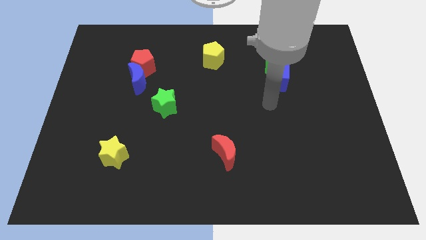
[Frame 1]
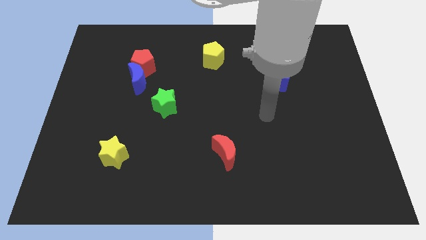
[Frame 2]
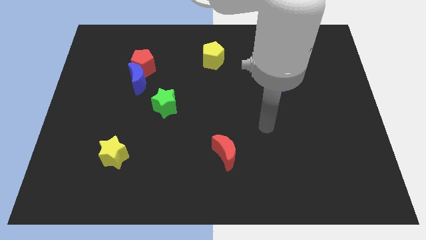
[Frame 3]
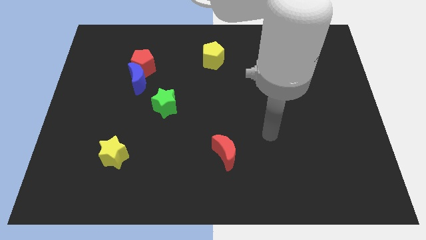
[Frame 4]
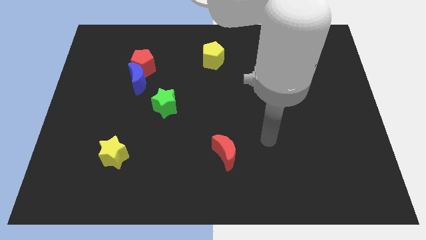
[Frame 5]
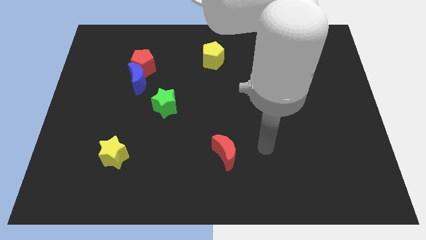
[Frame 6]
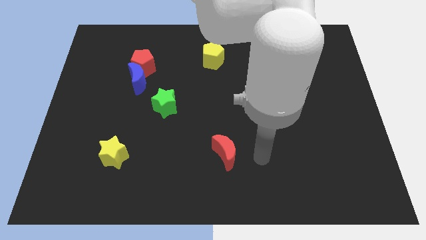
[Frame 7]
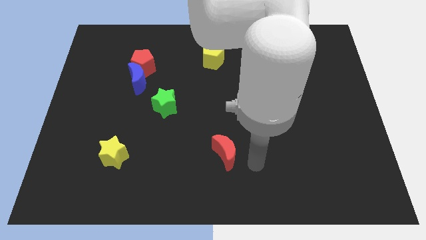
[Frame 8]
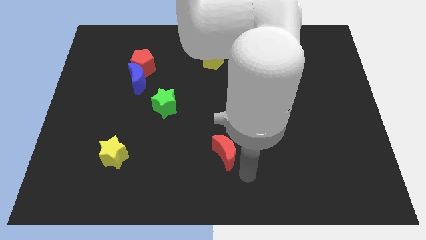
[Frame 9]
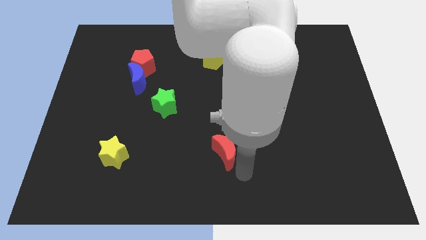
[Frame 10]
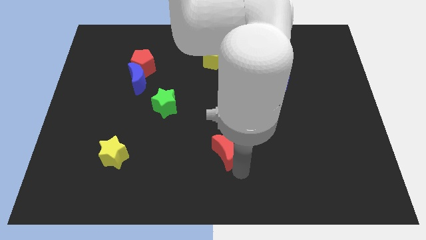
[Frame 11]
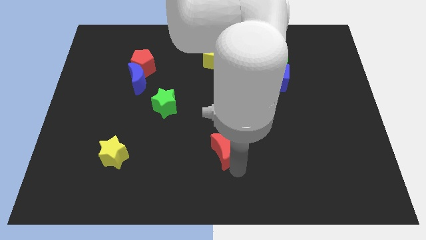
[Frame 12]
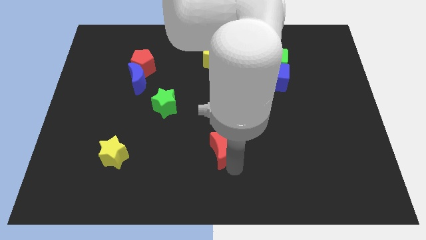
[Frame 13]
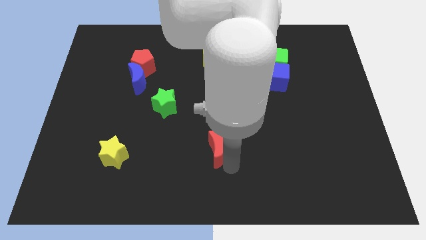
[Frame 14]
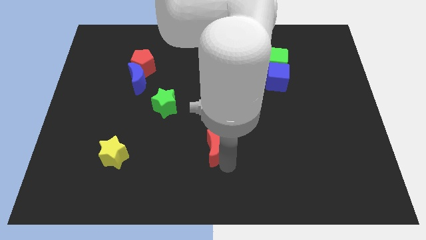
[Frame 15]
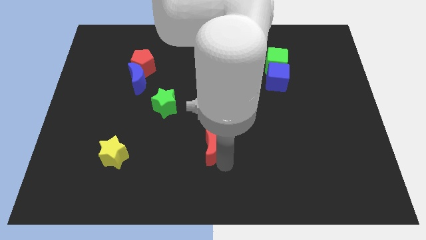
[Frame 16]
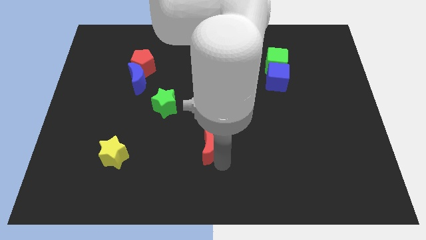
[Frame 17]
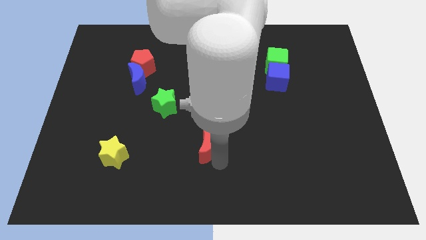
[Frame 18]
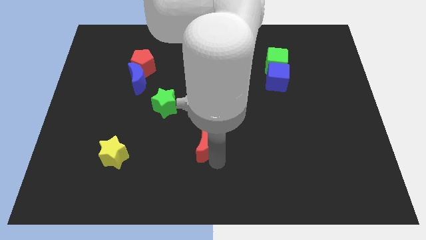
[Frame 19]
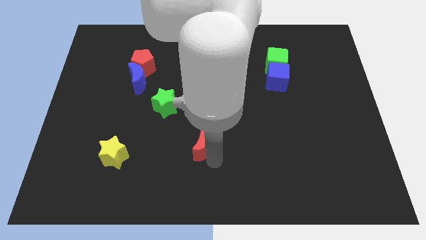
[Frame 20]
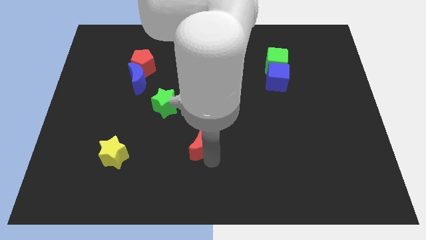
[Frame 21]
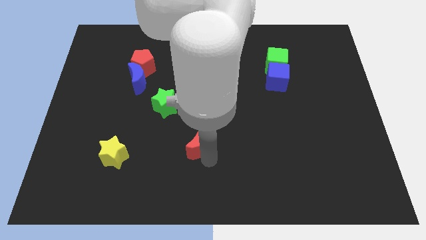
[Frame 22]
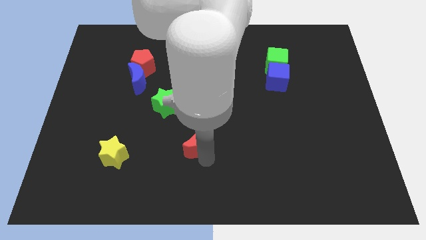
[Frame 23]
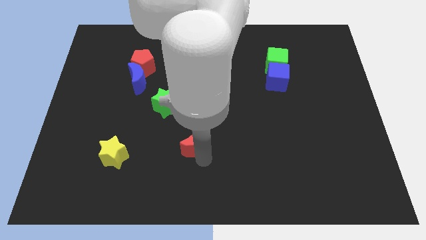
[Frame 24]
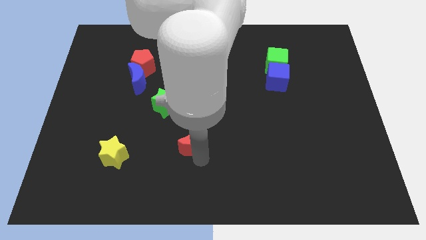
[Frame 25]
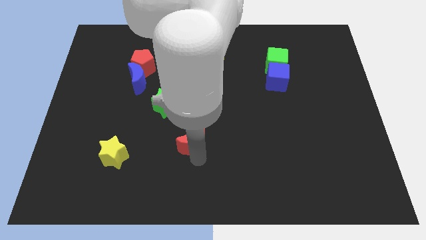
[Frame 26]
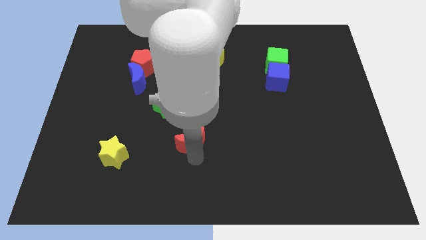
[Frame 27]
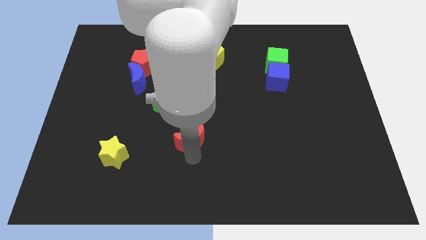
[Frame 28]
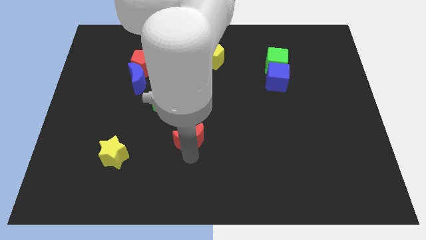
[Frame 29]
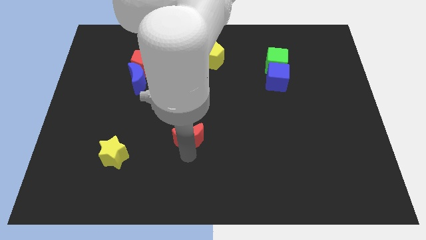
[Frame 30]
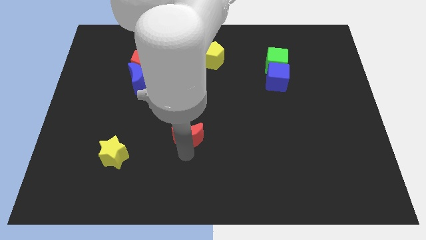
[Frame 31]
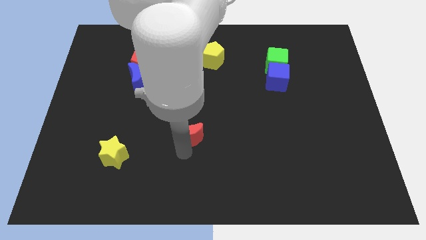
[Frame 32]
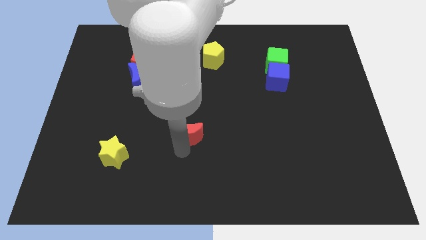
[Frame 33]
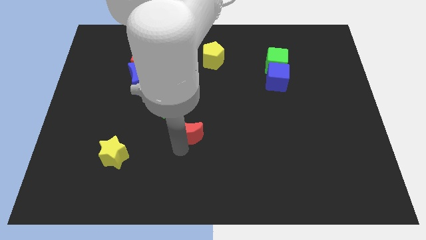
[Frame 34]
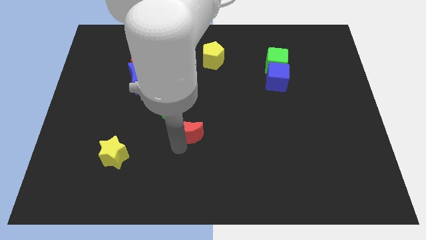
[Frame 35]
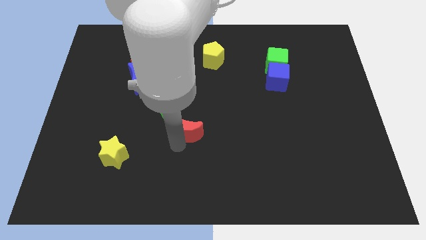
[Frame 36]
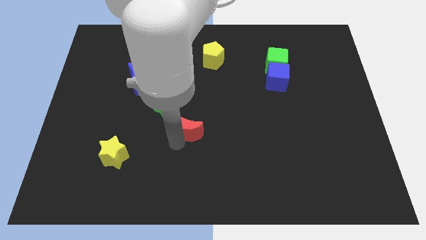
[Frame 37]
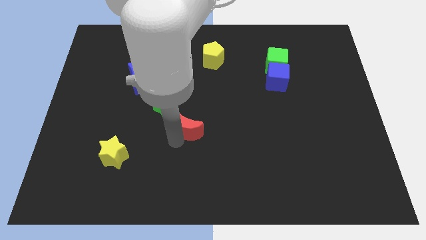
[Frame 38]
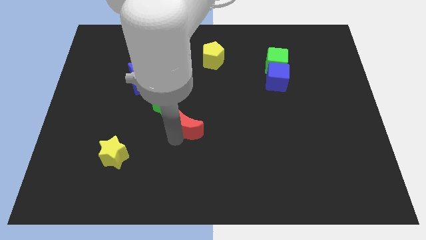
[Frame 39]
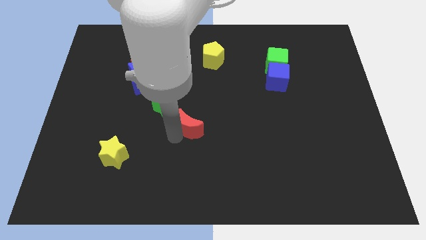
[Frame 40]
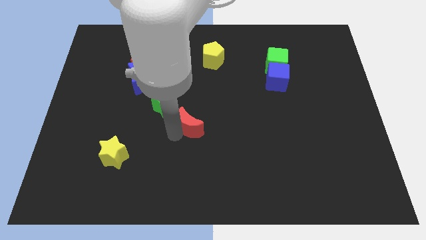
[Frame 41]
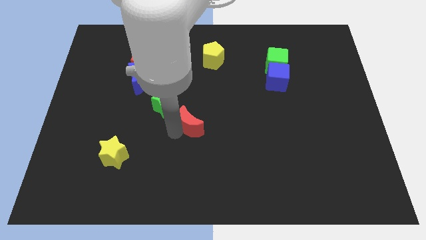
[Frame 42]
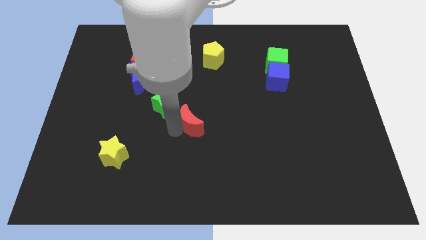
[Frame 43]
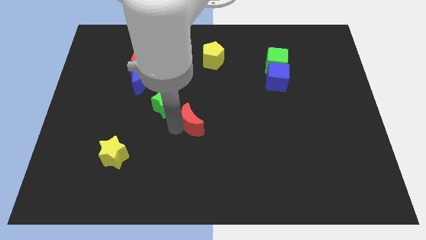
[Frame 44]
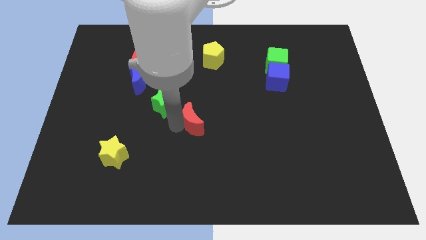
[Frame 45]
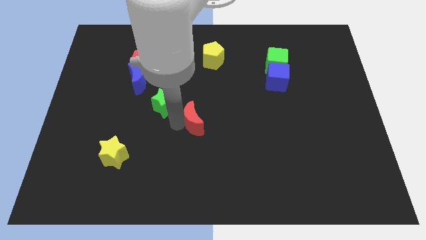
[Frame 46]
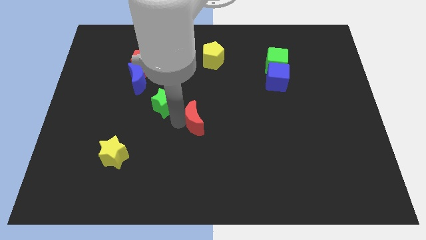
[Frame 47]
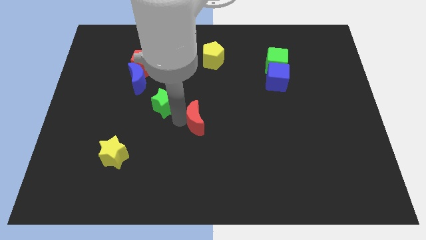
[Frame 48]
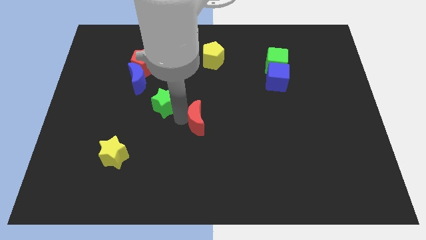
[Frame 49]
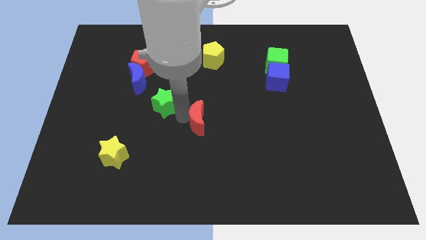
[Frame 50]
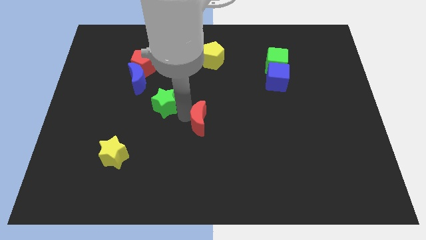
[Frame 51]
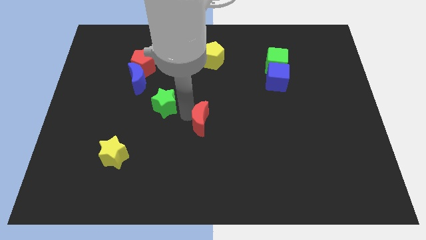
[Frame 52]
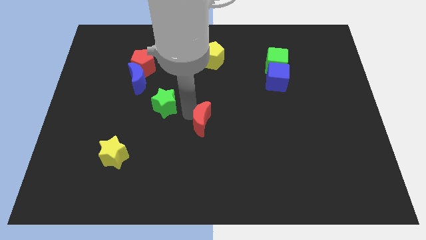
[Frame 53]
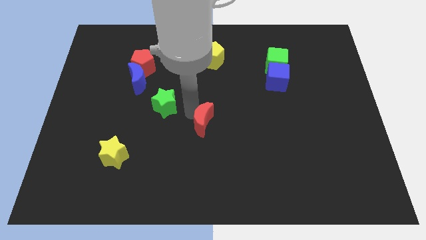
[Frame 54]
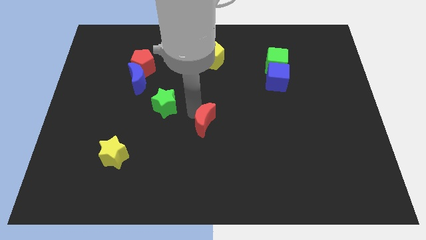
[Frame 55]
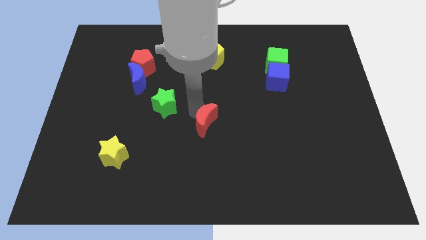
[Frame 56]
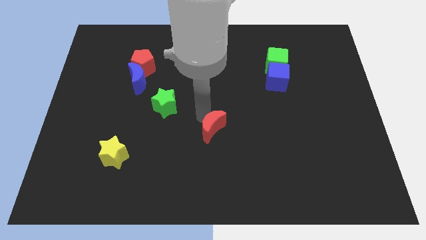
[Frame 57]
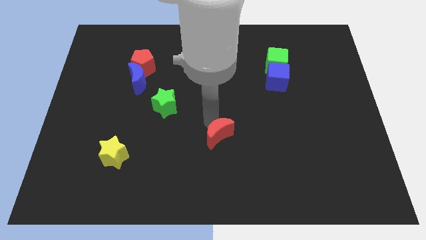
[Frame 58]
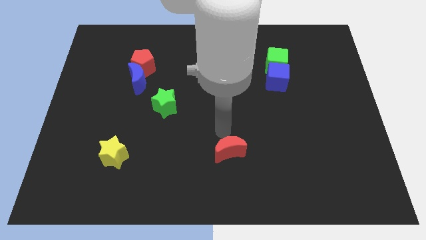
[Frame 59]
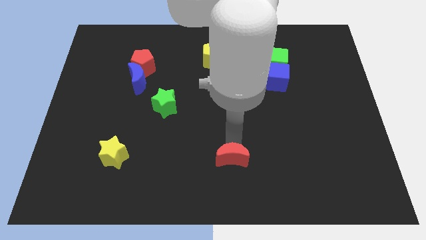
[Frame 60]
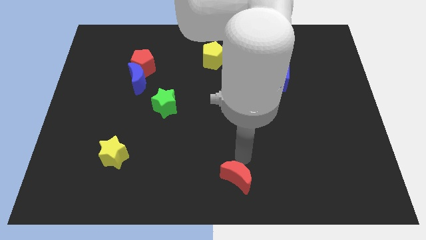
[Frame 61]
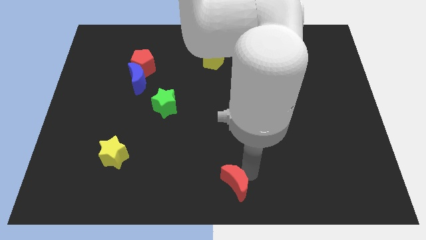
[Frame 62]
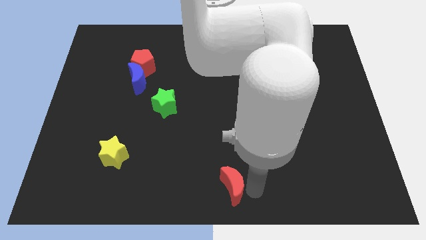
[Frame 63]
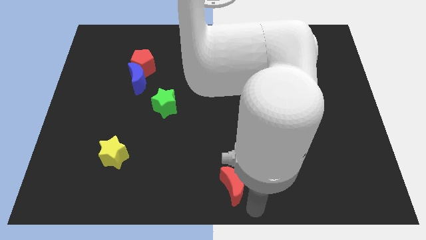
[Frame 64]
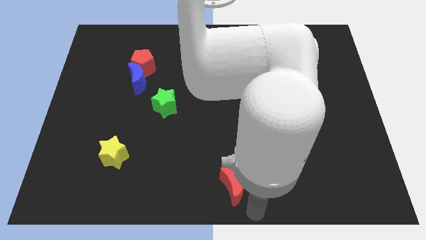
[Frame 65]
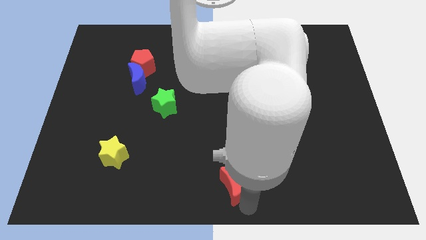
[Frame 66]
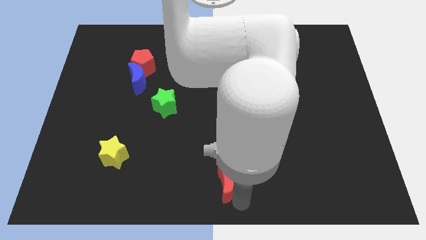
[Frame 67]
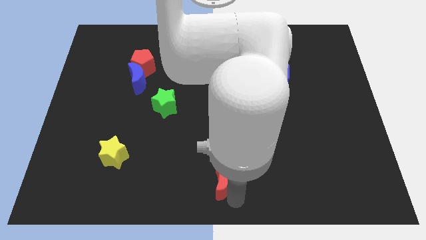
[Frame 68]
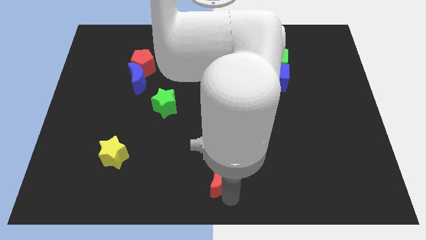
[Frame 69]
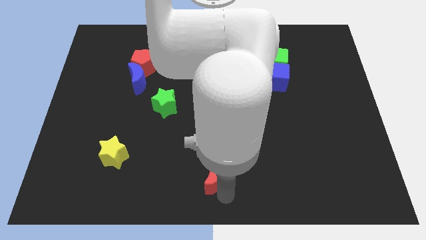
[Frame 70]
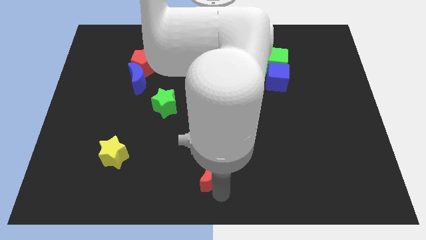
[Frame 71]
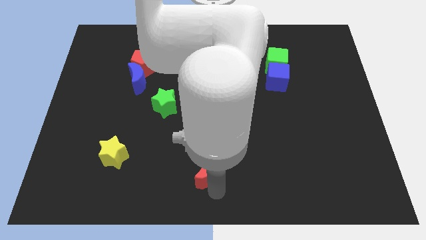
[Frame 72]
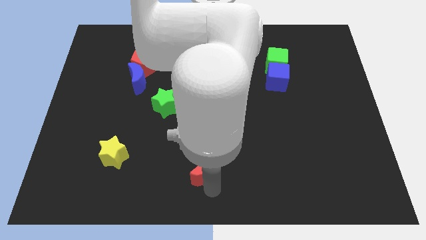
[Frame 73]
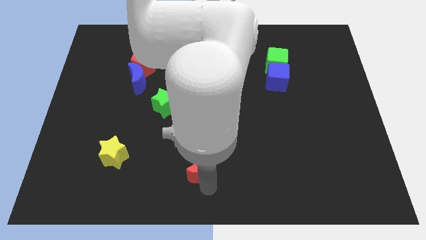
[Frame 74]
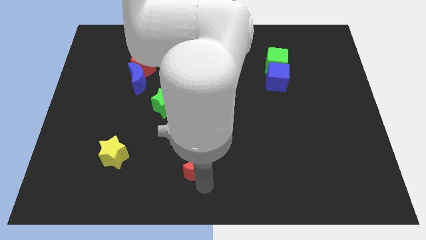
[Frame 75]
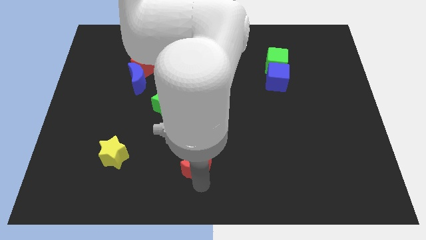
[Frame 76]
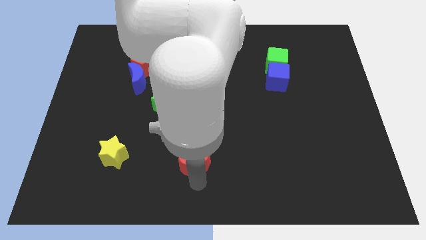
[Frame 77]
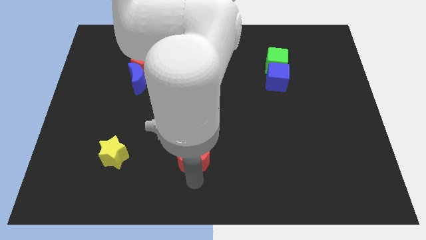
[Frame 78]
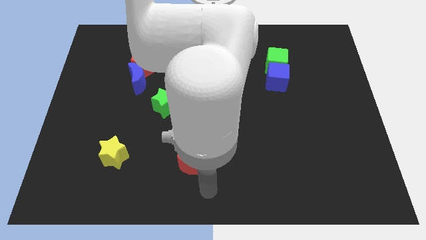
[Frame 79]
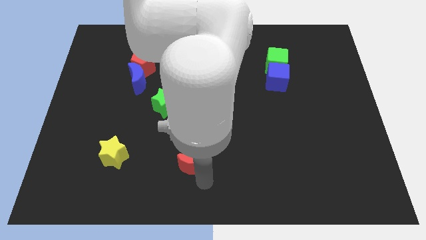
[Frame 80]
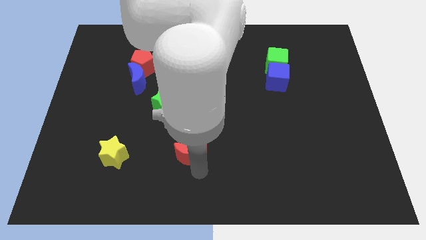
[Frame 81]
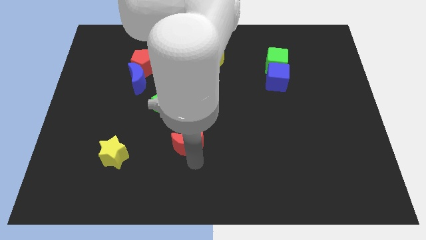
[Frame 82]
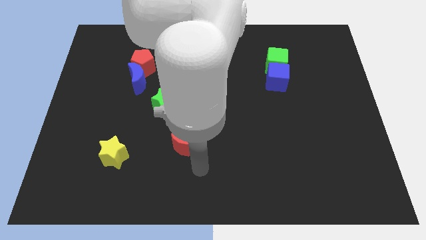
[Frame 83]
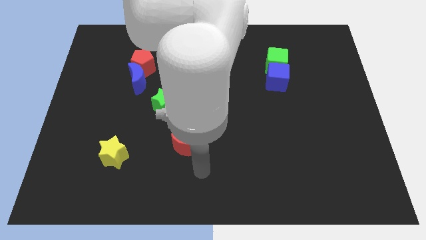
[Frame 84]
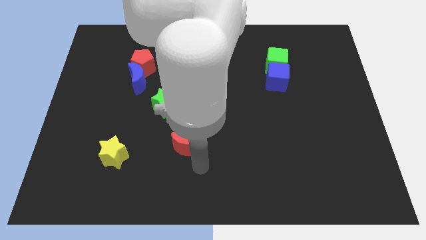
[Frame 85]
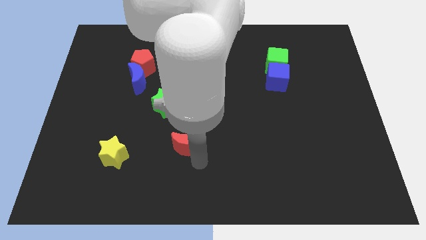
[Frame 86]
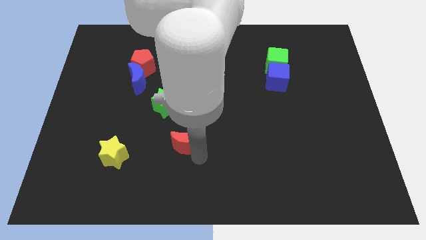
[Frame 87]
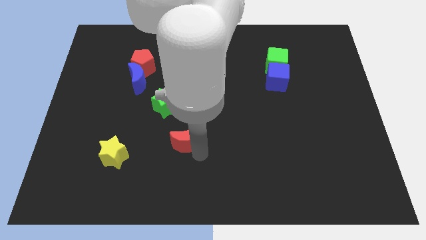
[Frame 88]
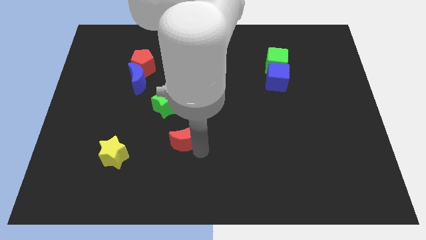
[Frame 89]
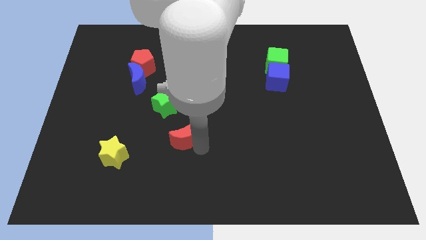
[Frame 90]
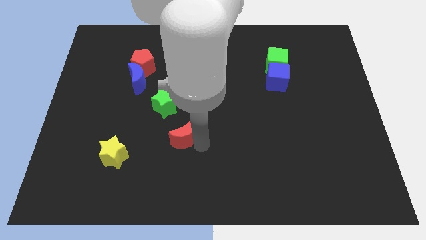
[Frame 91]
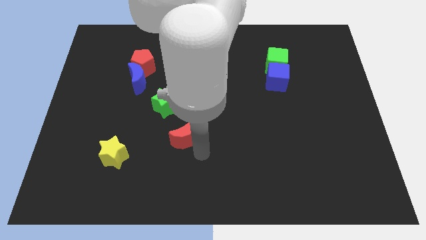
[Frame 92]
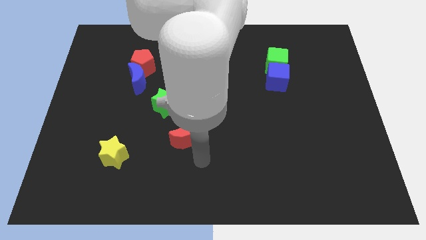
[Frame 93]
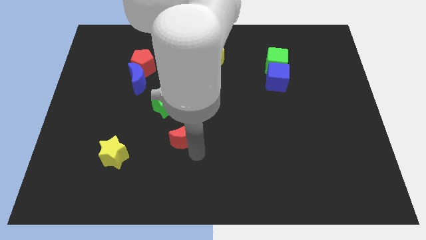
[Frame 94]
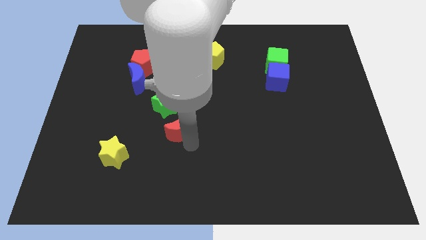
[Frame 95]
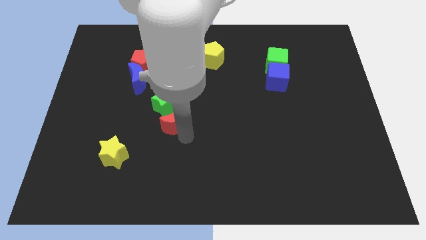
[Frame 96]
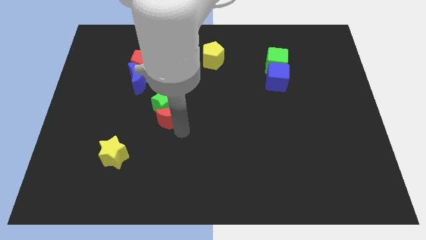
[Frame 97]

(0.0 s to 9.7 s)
slide the red moon to the green star
